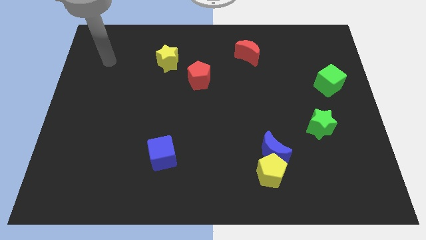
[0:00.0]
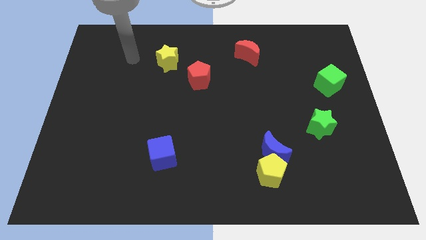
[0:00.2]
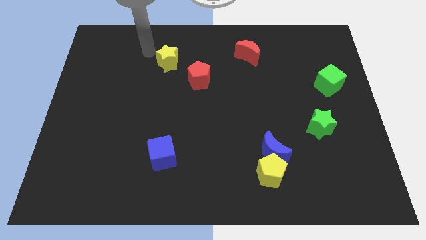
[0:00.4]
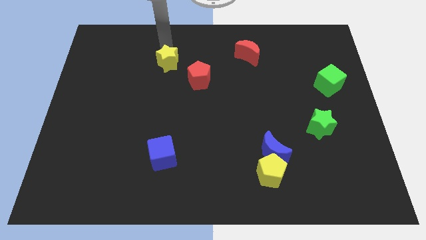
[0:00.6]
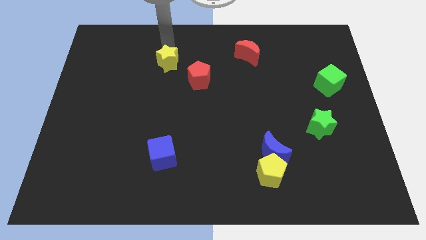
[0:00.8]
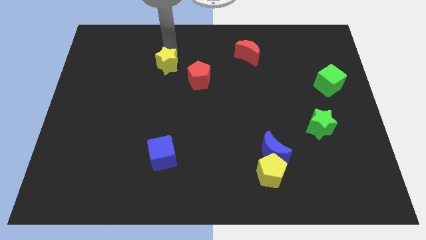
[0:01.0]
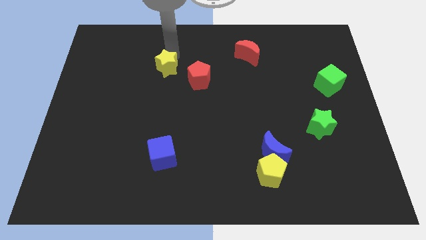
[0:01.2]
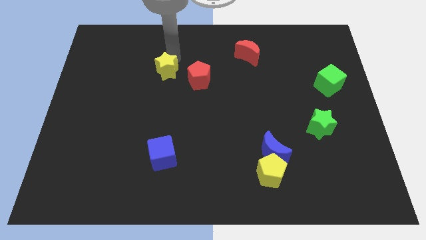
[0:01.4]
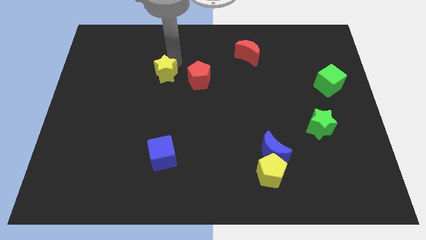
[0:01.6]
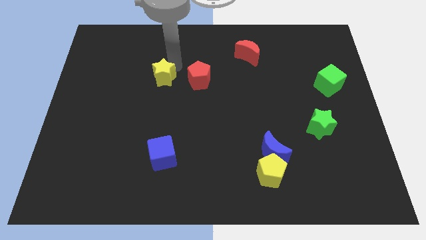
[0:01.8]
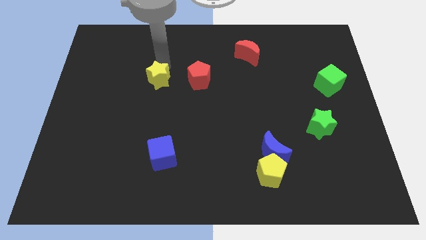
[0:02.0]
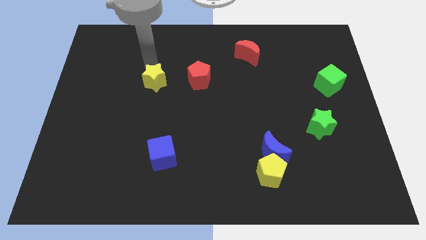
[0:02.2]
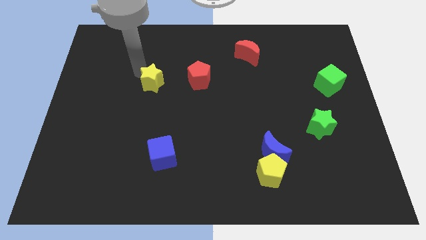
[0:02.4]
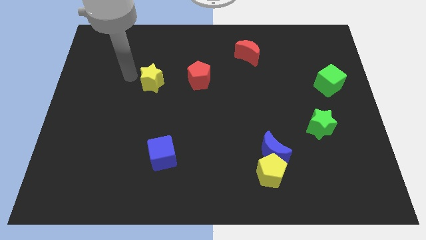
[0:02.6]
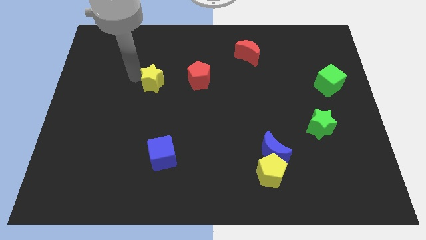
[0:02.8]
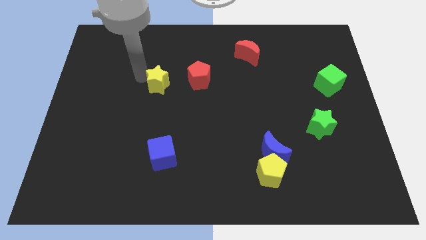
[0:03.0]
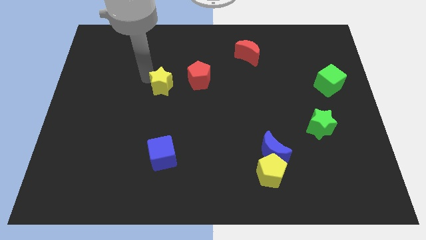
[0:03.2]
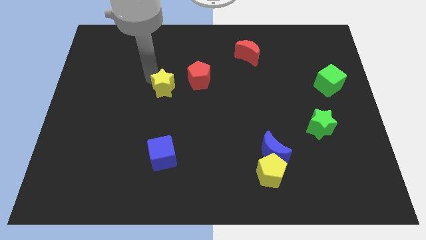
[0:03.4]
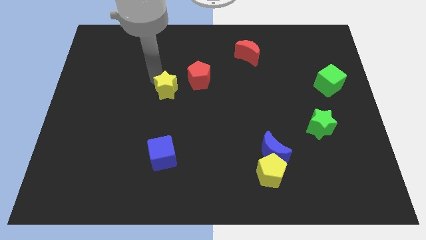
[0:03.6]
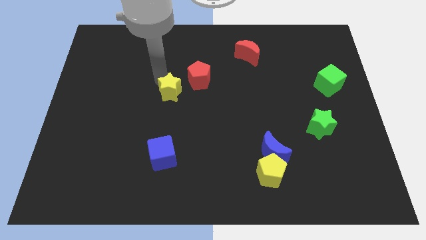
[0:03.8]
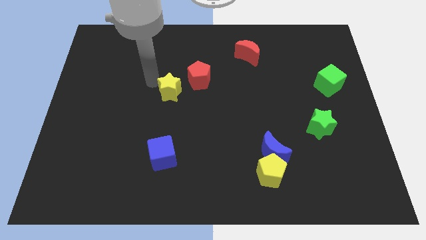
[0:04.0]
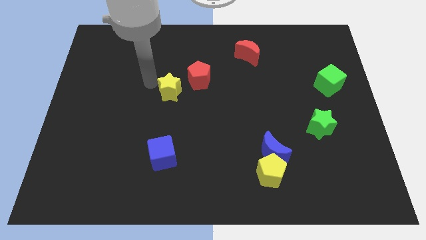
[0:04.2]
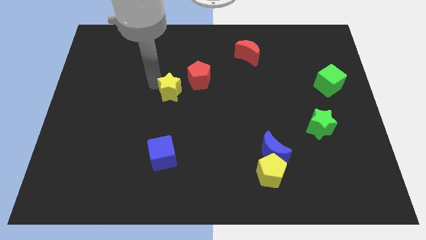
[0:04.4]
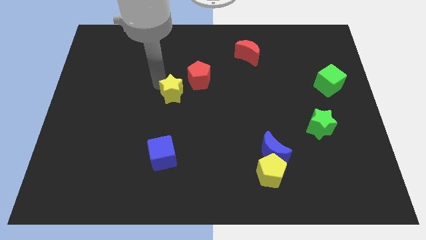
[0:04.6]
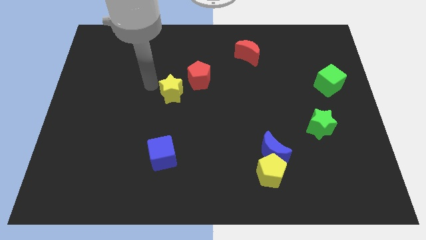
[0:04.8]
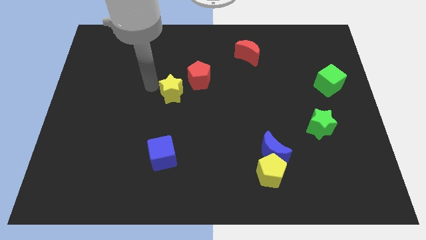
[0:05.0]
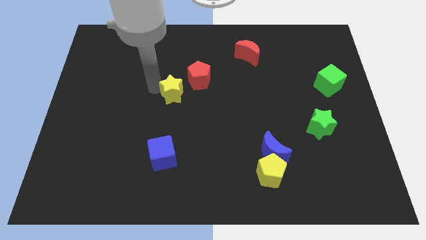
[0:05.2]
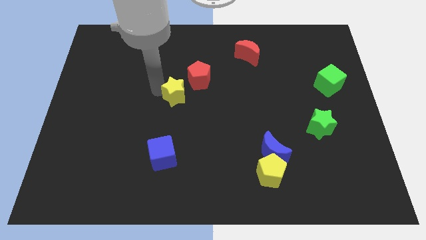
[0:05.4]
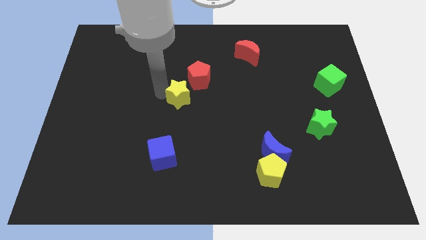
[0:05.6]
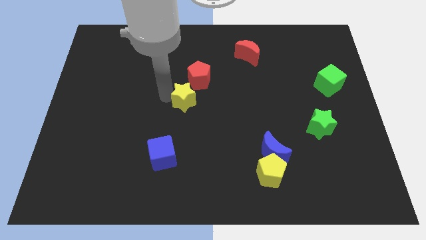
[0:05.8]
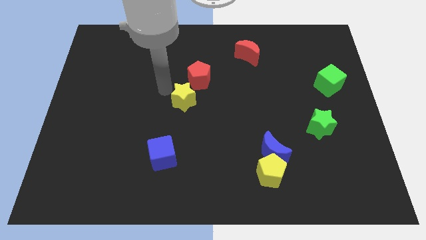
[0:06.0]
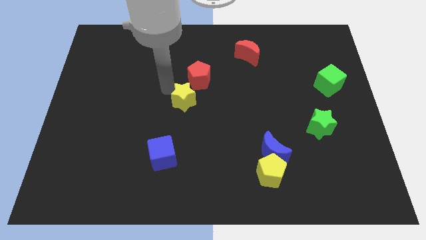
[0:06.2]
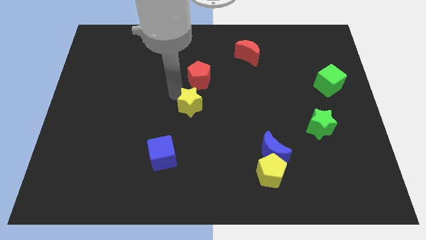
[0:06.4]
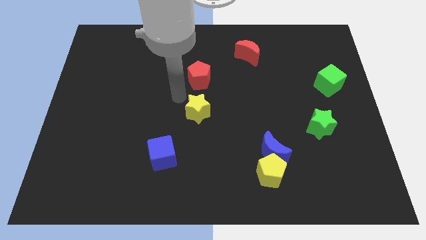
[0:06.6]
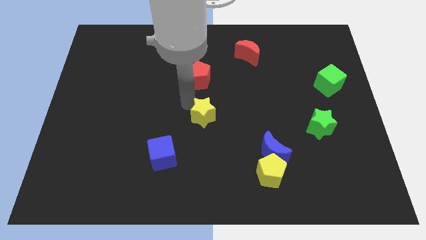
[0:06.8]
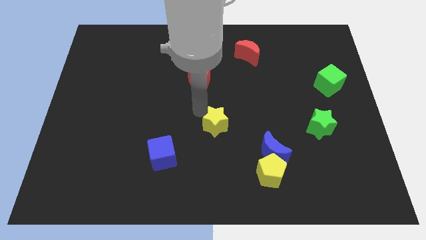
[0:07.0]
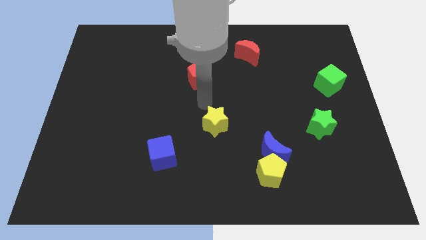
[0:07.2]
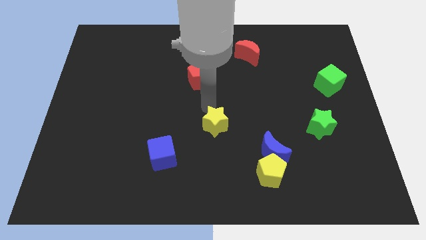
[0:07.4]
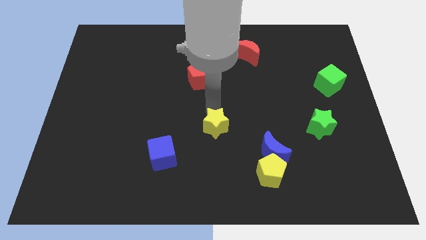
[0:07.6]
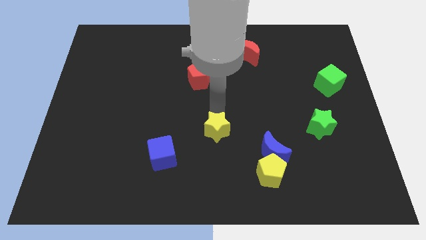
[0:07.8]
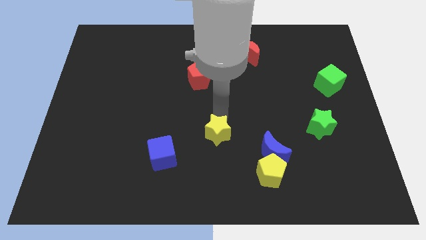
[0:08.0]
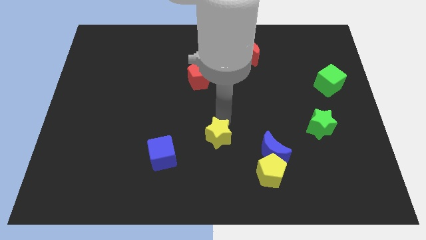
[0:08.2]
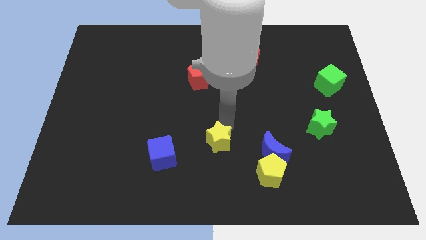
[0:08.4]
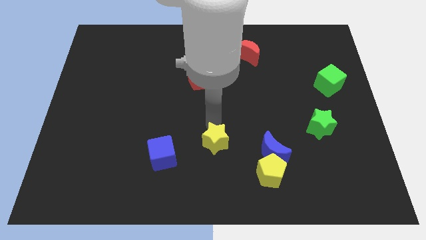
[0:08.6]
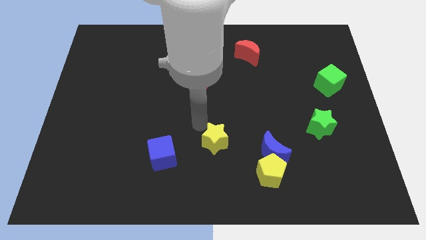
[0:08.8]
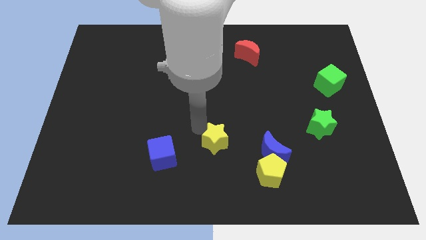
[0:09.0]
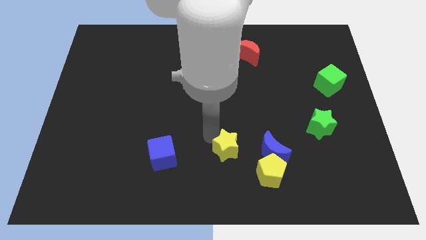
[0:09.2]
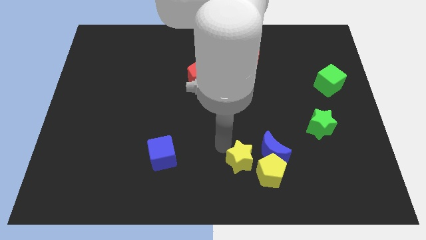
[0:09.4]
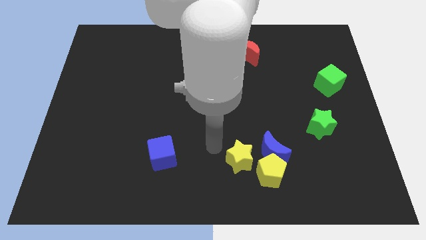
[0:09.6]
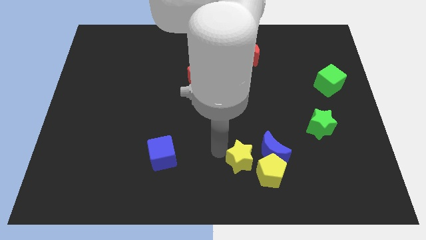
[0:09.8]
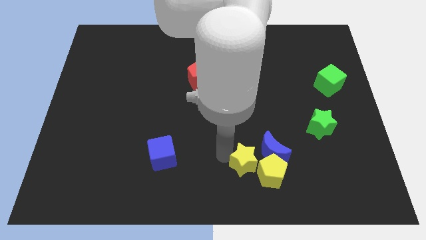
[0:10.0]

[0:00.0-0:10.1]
put the yellow star close to the yellow pentagon

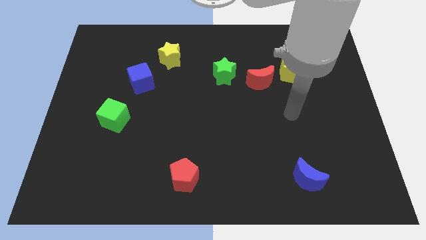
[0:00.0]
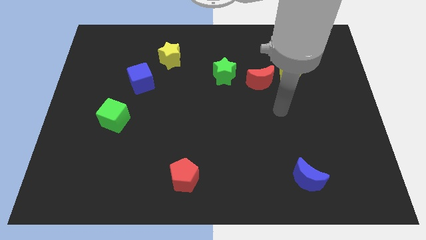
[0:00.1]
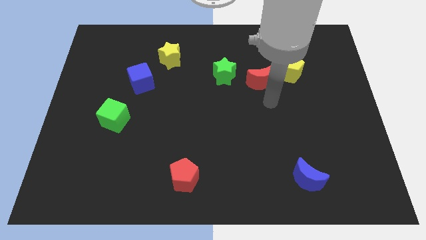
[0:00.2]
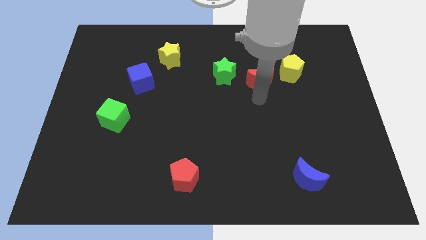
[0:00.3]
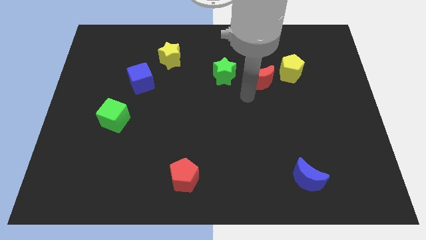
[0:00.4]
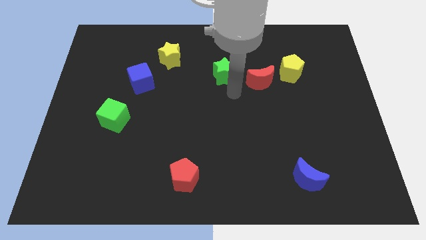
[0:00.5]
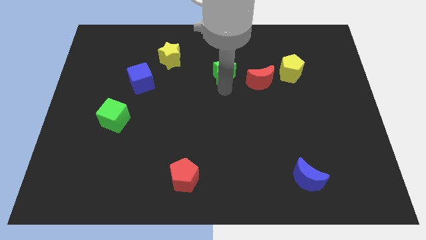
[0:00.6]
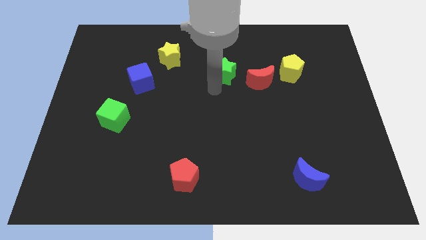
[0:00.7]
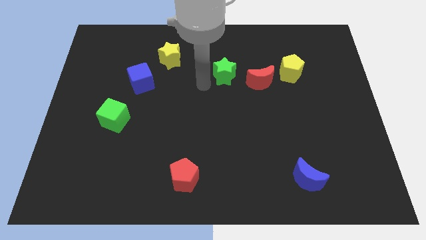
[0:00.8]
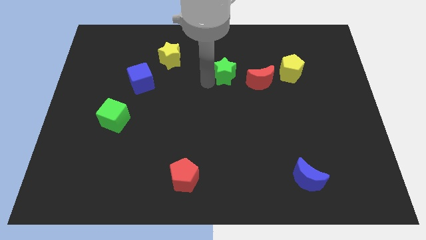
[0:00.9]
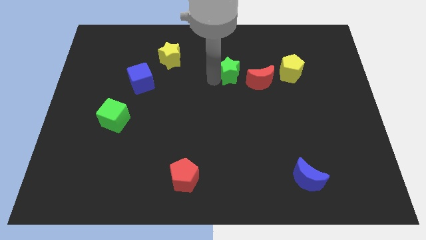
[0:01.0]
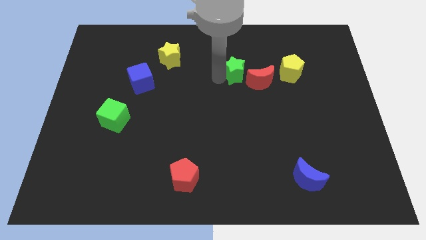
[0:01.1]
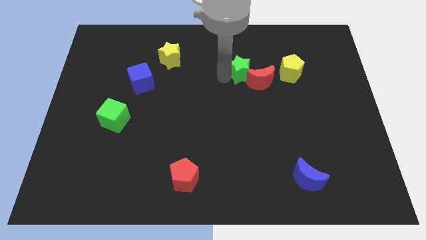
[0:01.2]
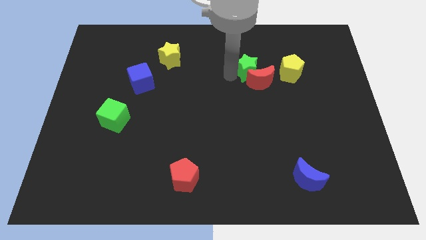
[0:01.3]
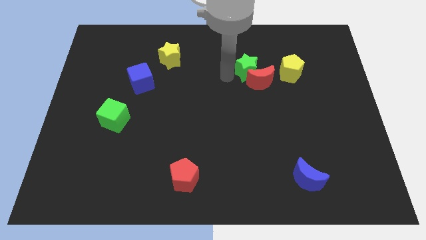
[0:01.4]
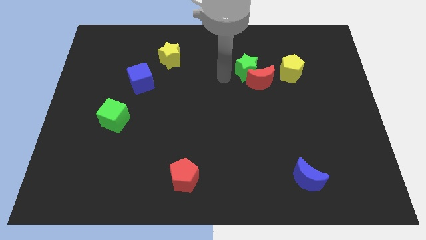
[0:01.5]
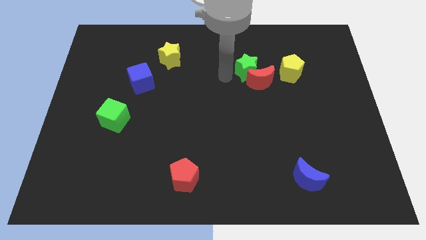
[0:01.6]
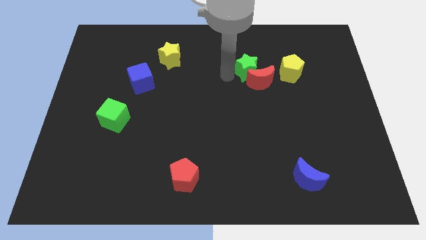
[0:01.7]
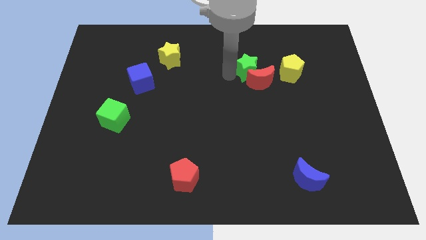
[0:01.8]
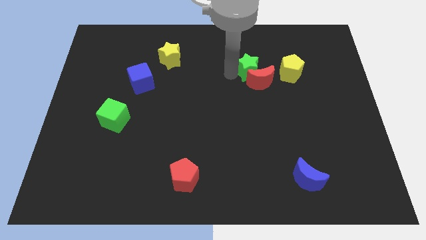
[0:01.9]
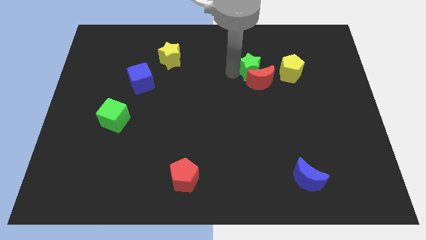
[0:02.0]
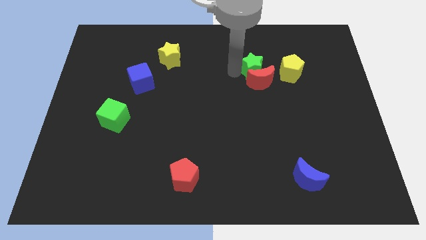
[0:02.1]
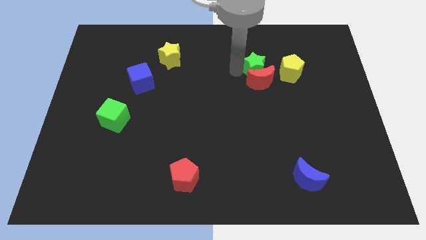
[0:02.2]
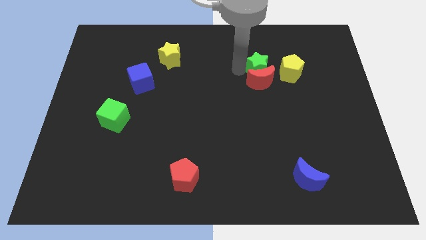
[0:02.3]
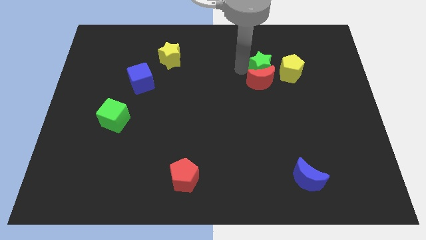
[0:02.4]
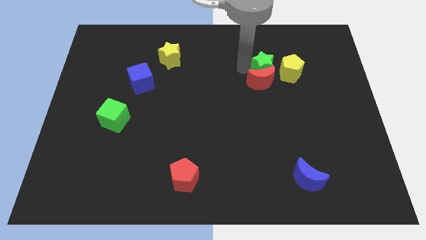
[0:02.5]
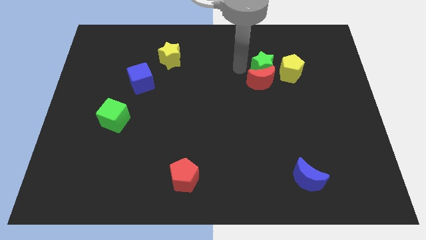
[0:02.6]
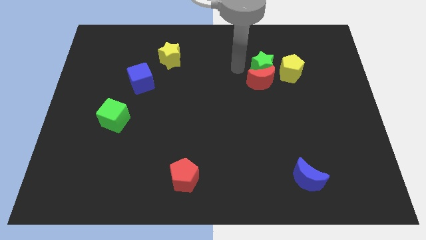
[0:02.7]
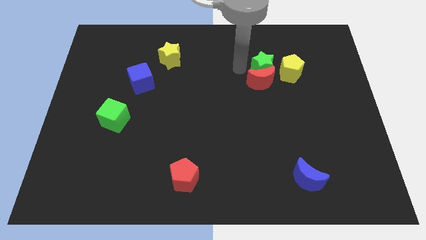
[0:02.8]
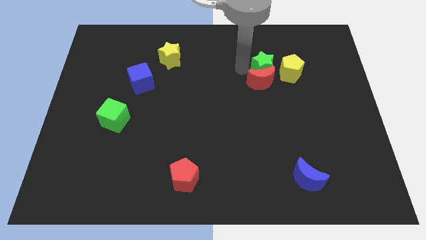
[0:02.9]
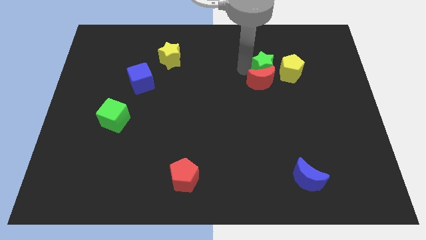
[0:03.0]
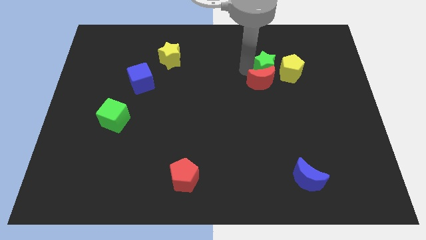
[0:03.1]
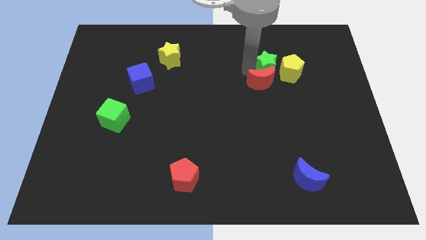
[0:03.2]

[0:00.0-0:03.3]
slide the green star towards the yellow pentagon
